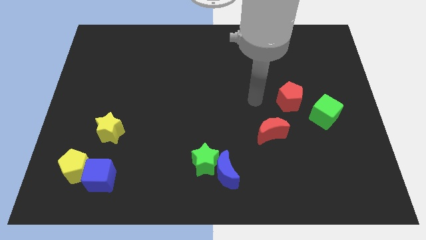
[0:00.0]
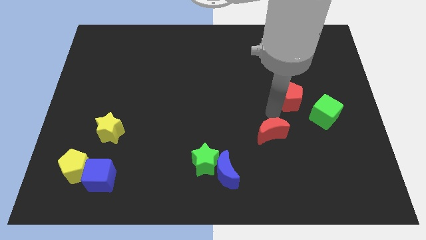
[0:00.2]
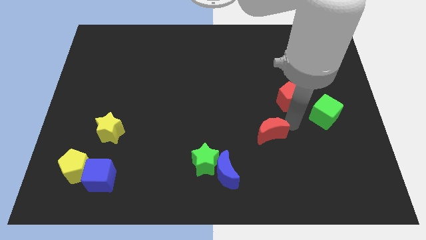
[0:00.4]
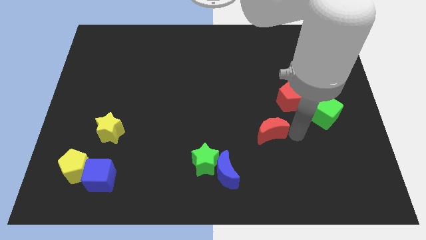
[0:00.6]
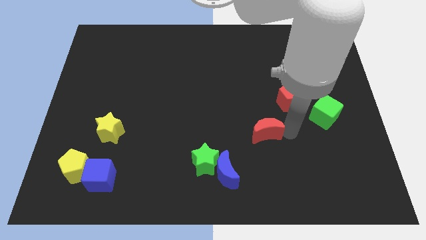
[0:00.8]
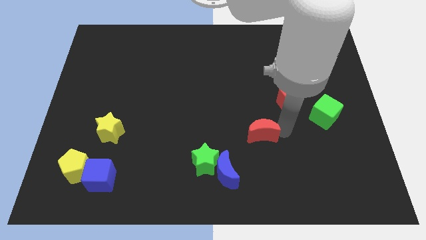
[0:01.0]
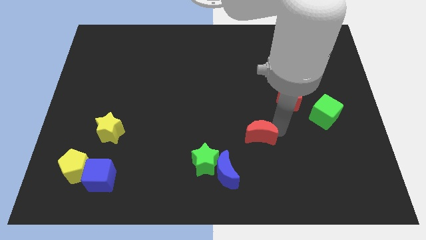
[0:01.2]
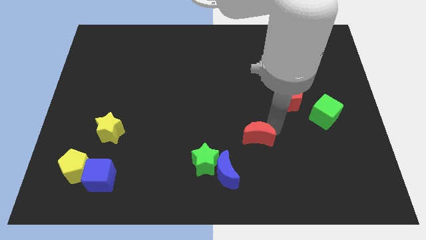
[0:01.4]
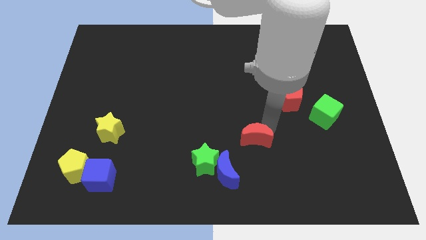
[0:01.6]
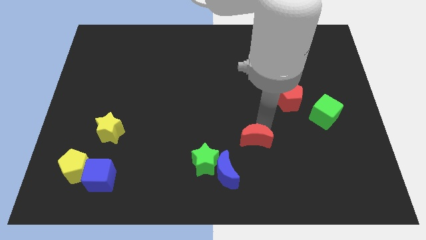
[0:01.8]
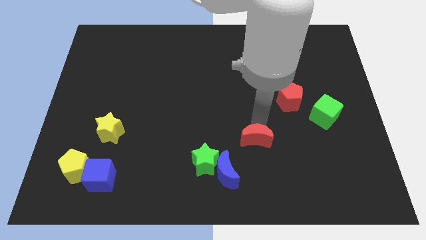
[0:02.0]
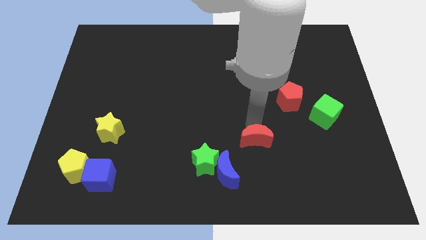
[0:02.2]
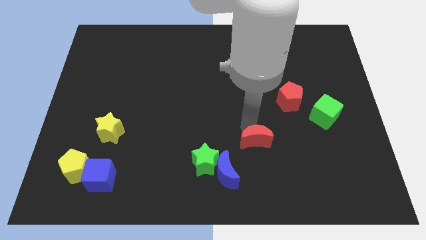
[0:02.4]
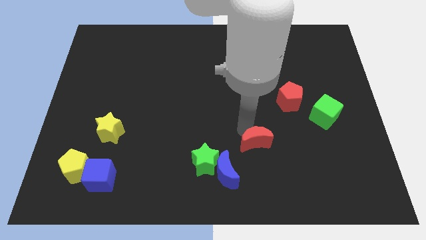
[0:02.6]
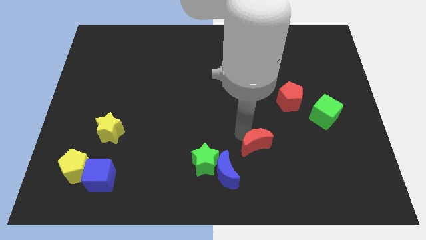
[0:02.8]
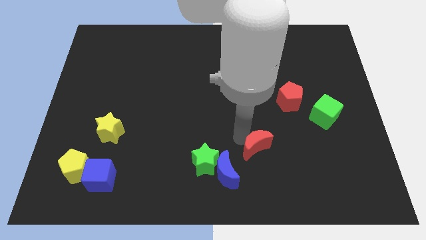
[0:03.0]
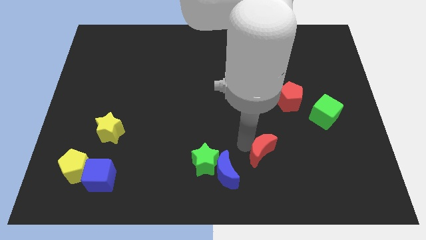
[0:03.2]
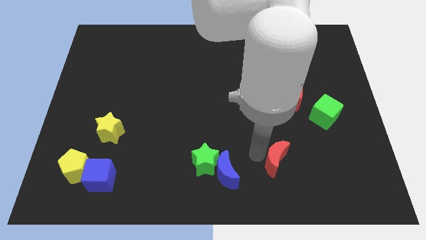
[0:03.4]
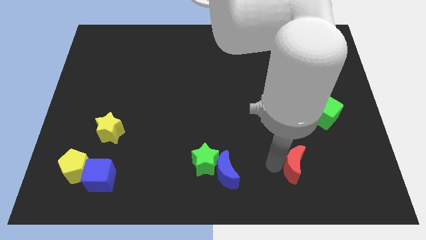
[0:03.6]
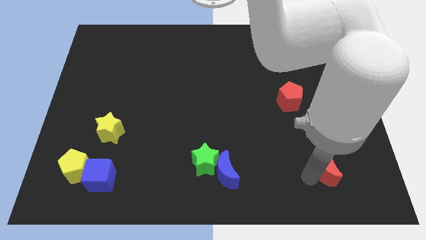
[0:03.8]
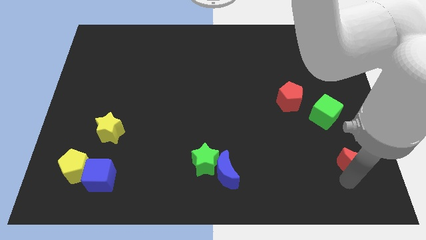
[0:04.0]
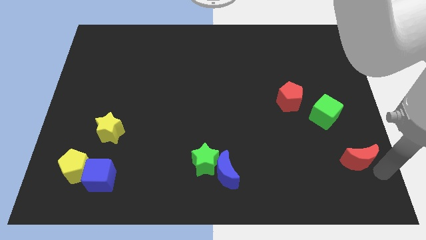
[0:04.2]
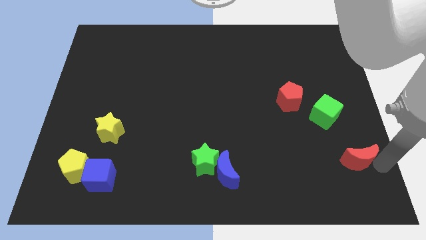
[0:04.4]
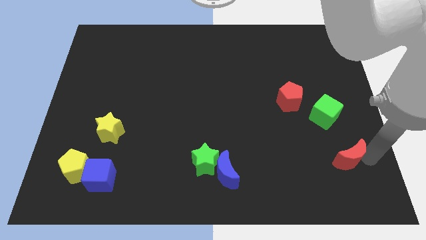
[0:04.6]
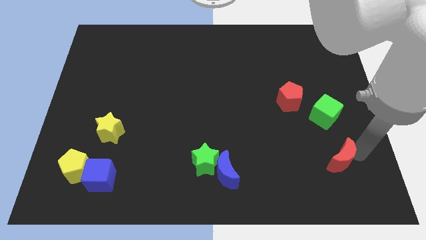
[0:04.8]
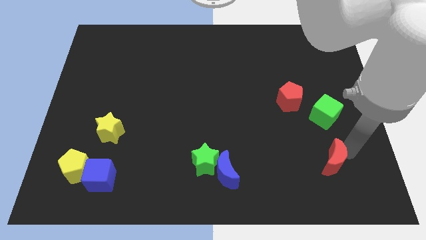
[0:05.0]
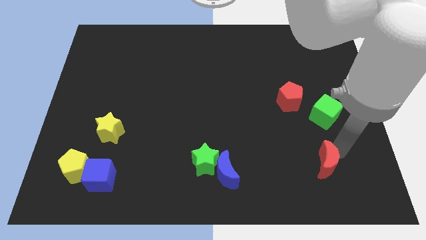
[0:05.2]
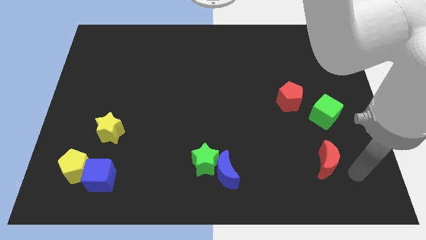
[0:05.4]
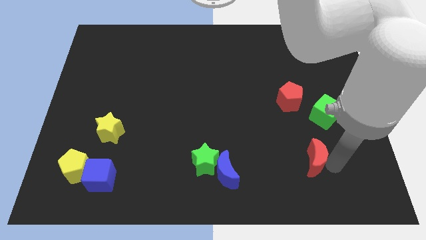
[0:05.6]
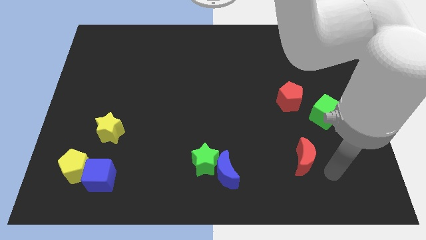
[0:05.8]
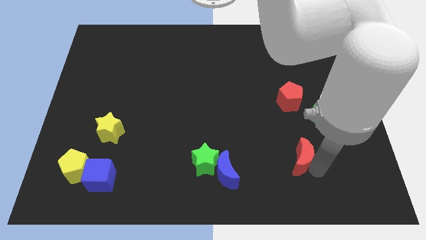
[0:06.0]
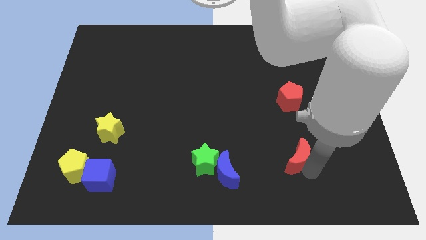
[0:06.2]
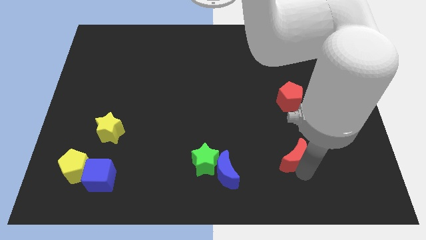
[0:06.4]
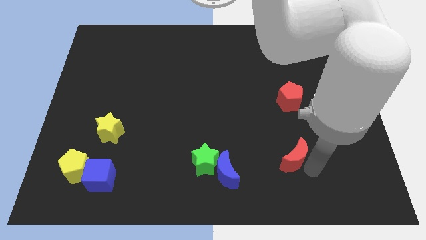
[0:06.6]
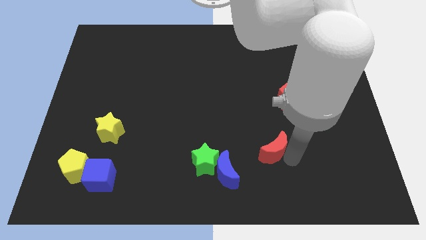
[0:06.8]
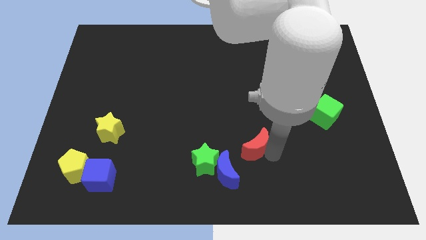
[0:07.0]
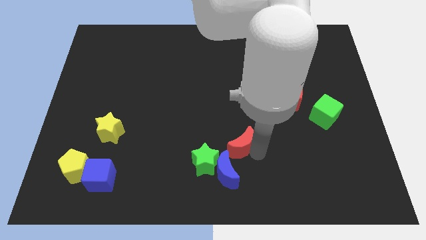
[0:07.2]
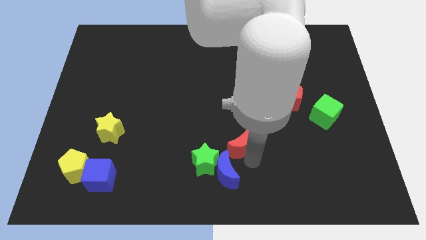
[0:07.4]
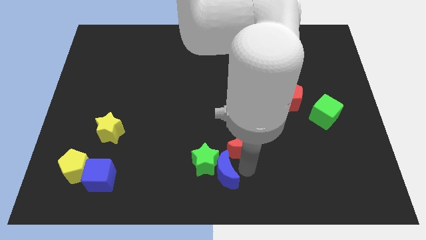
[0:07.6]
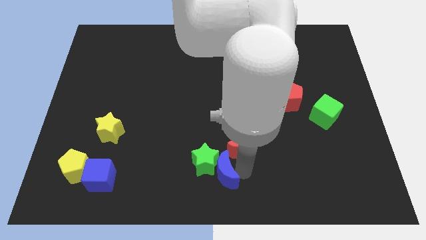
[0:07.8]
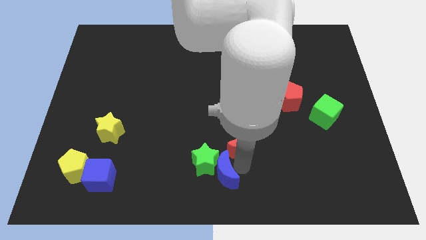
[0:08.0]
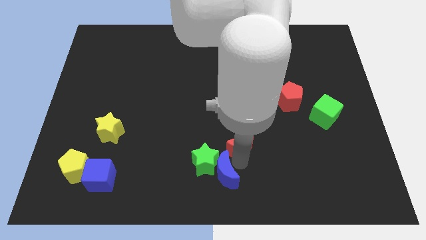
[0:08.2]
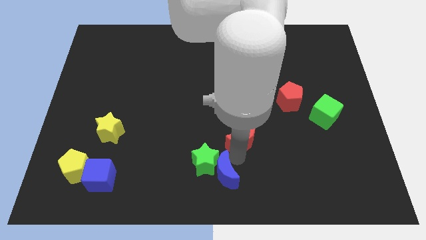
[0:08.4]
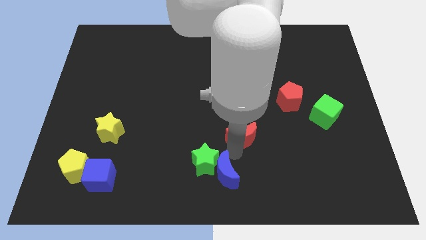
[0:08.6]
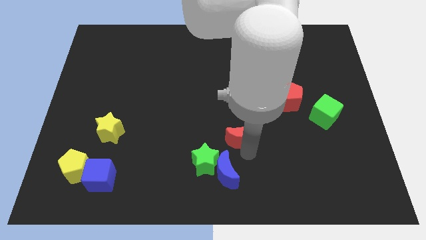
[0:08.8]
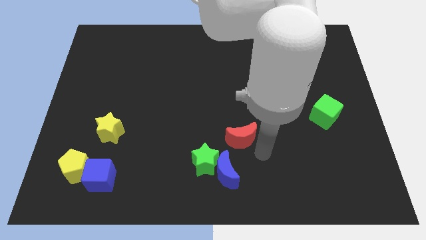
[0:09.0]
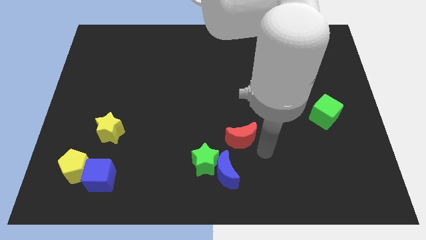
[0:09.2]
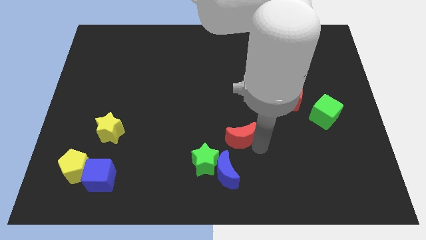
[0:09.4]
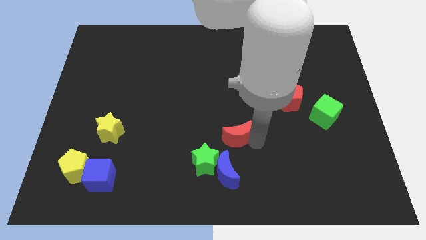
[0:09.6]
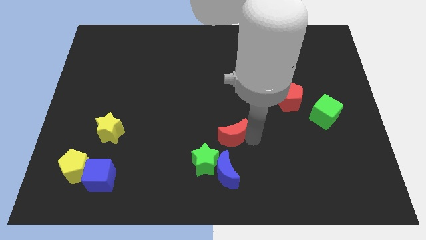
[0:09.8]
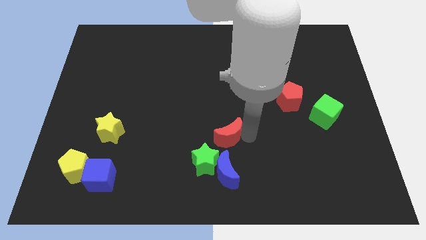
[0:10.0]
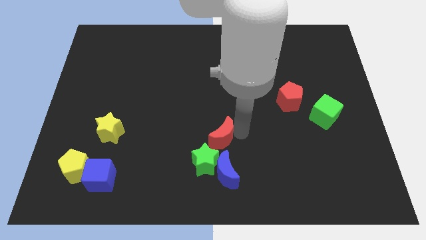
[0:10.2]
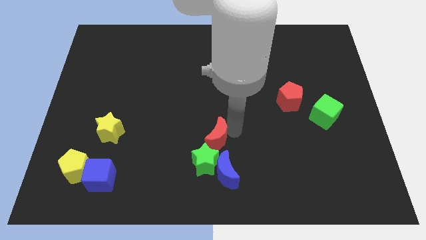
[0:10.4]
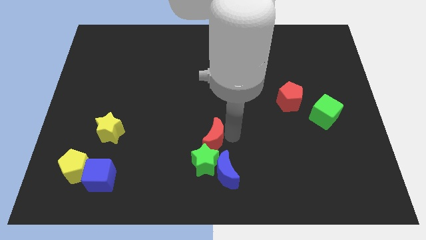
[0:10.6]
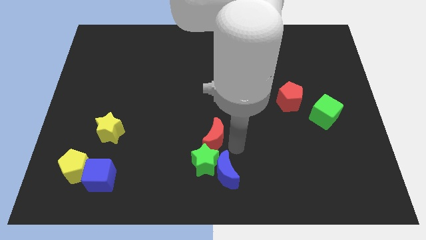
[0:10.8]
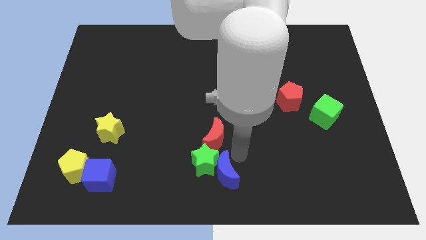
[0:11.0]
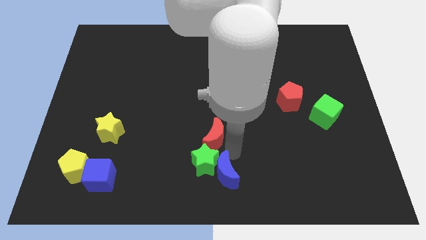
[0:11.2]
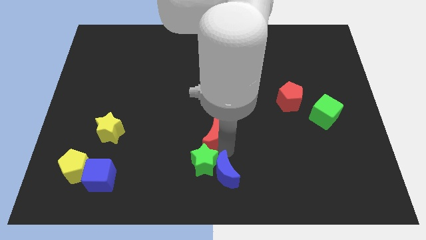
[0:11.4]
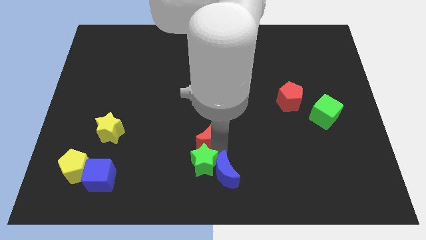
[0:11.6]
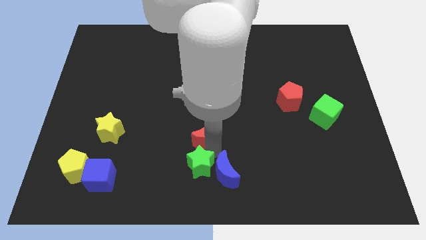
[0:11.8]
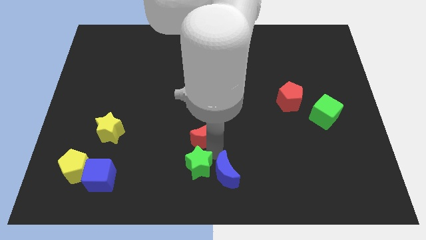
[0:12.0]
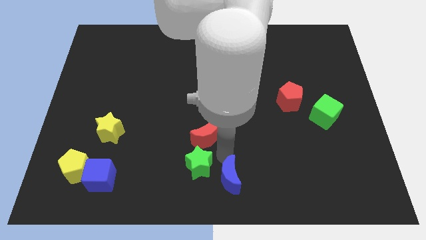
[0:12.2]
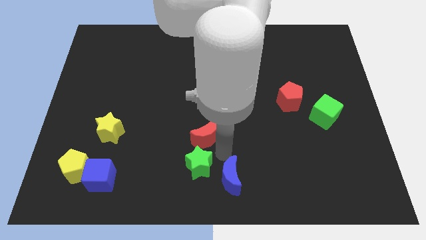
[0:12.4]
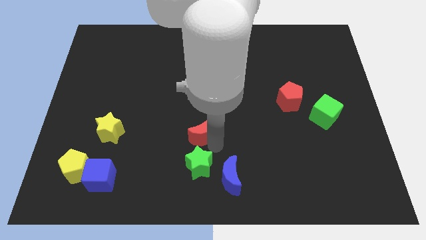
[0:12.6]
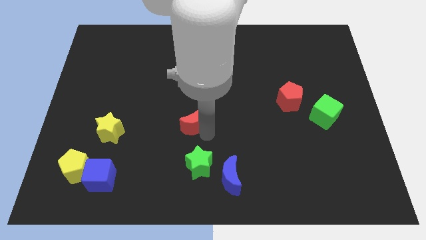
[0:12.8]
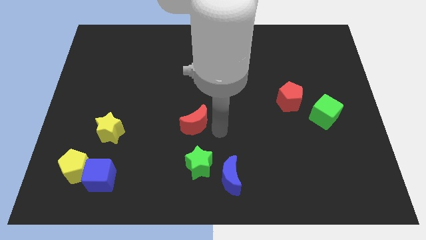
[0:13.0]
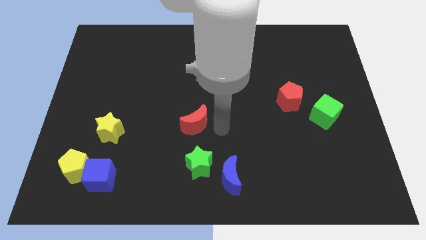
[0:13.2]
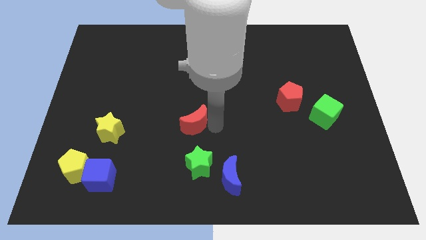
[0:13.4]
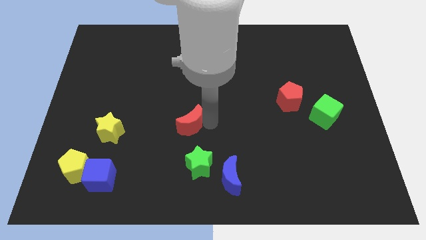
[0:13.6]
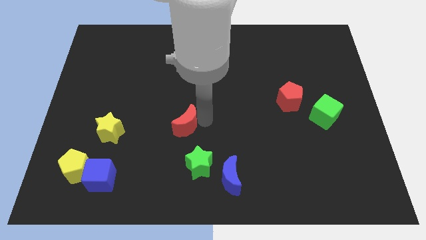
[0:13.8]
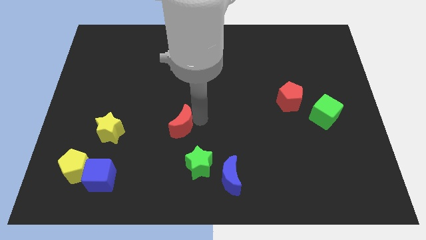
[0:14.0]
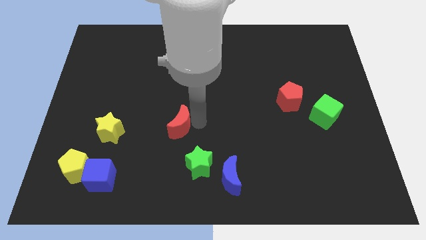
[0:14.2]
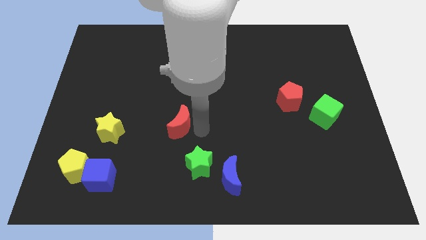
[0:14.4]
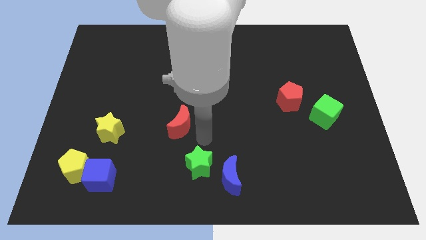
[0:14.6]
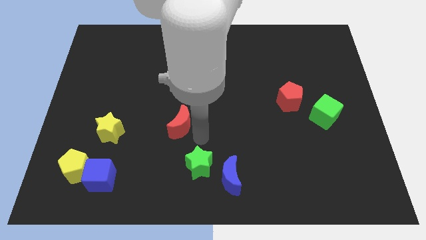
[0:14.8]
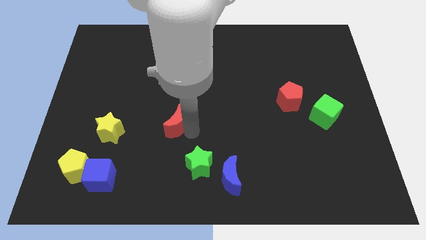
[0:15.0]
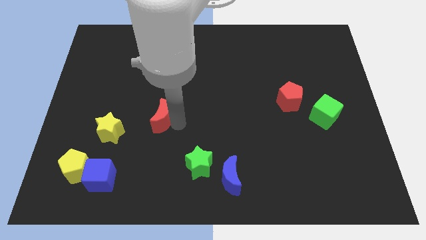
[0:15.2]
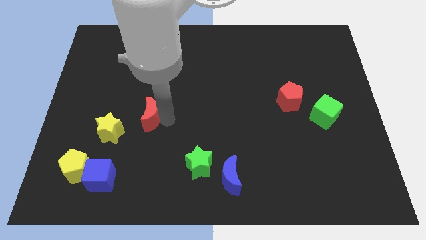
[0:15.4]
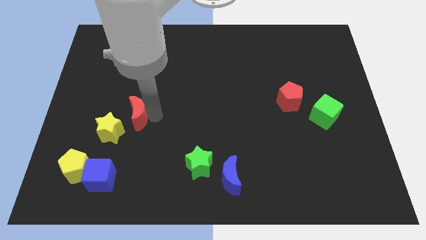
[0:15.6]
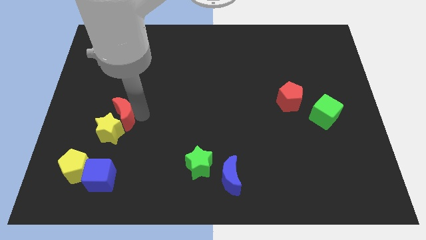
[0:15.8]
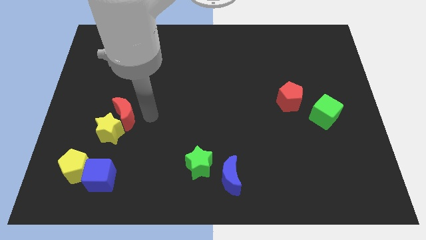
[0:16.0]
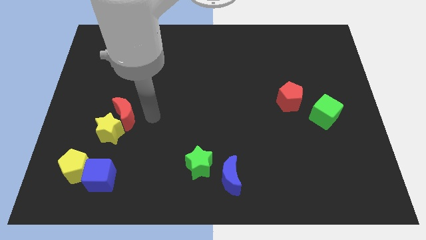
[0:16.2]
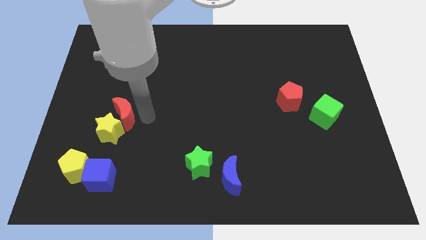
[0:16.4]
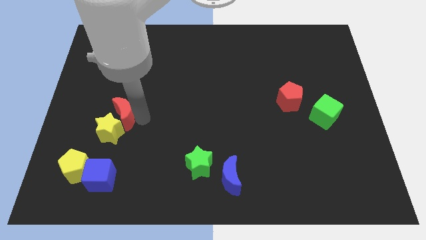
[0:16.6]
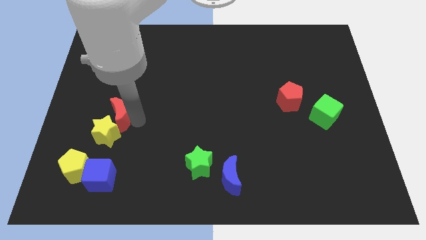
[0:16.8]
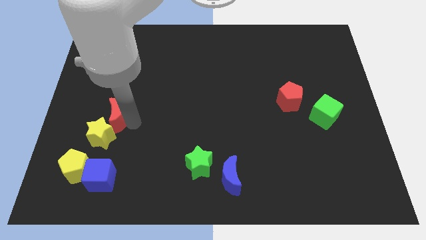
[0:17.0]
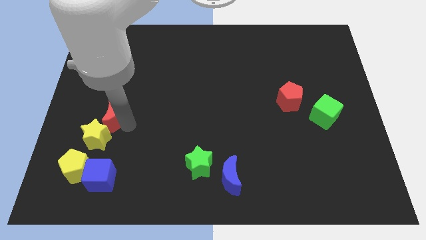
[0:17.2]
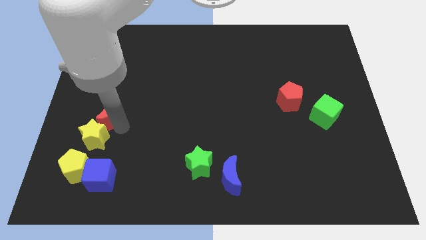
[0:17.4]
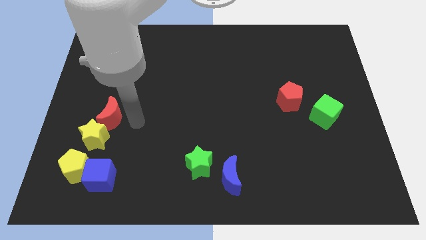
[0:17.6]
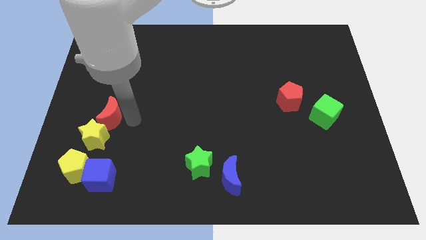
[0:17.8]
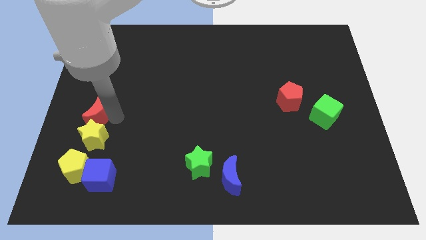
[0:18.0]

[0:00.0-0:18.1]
move the red moon to the center left
